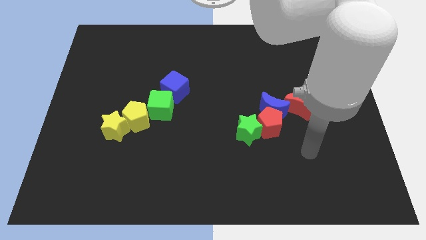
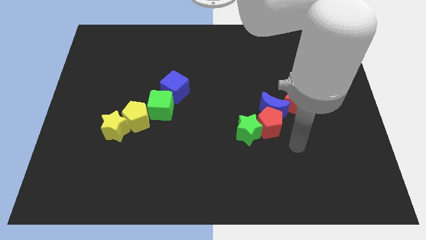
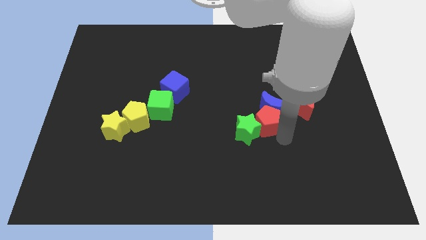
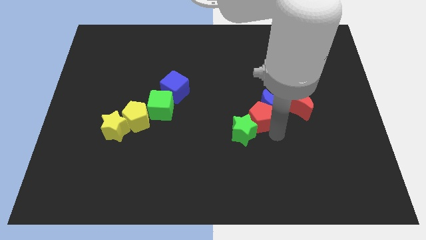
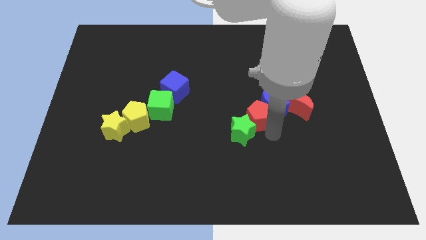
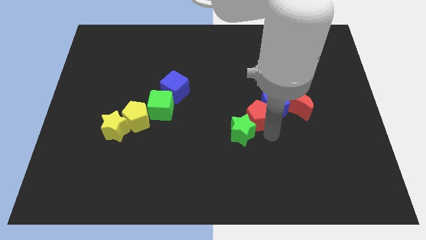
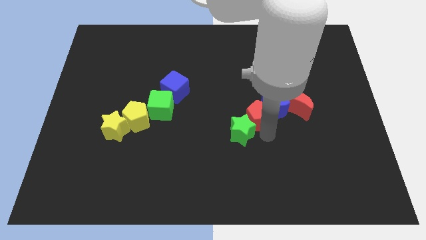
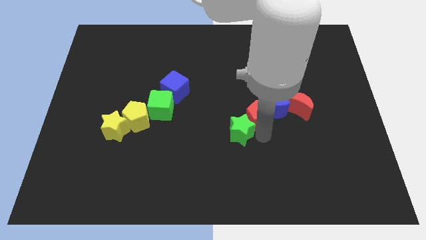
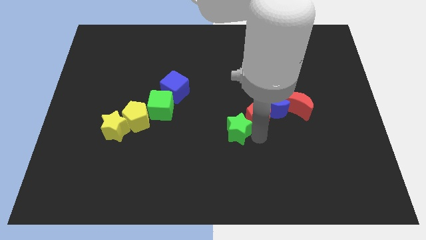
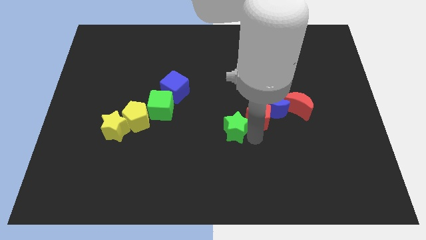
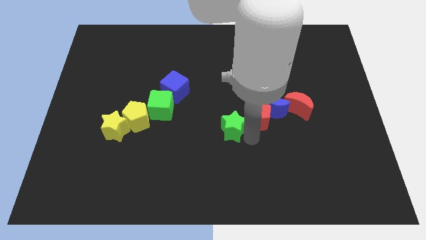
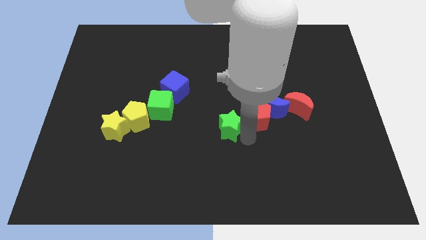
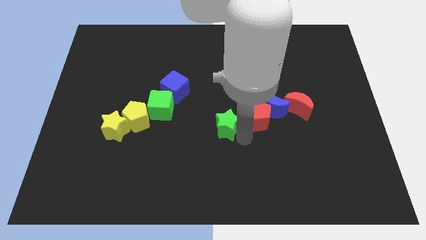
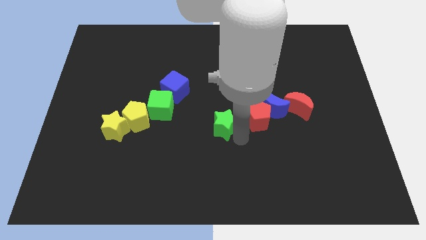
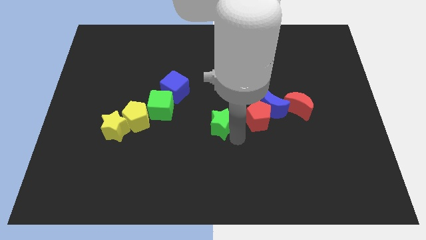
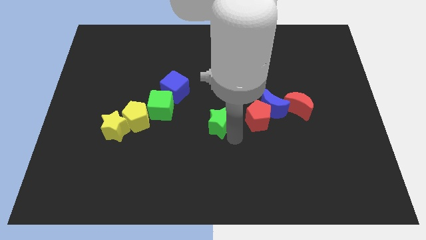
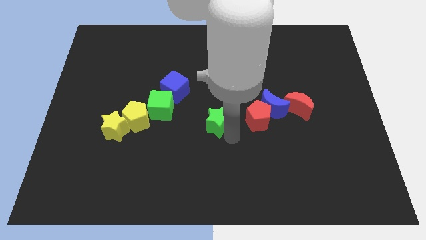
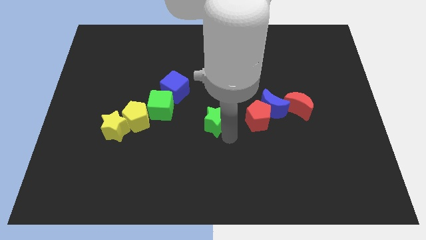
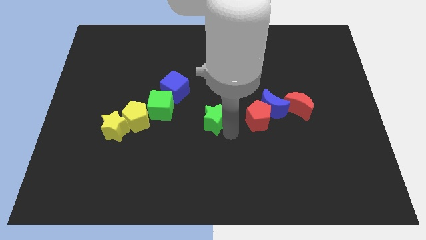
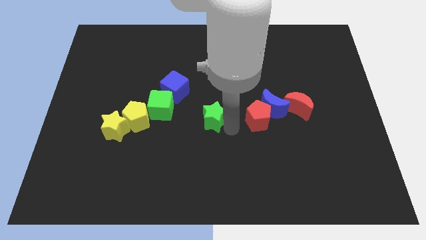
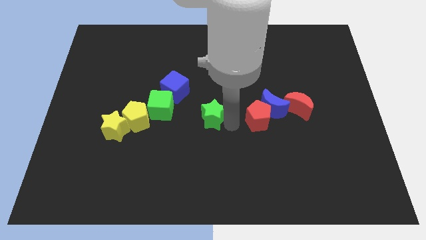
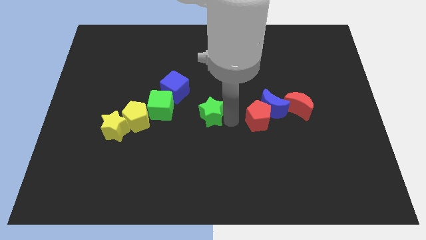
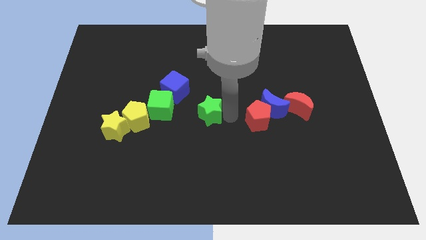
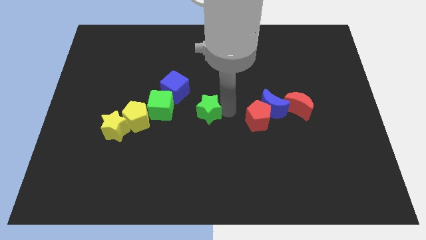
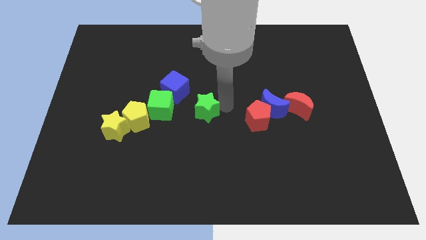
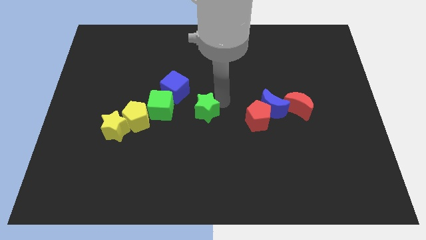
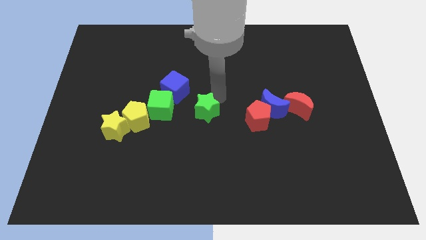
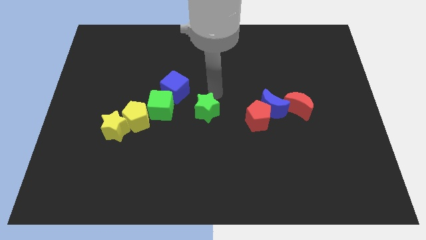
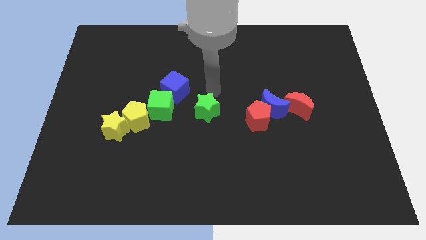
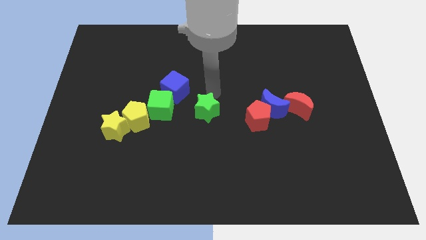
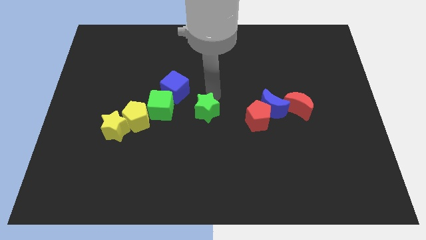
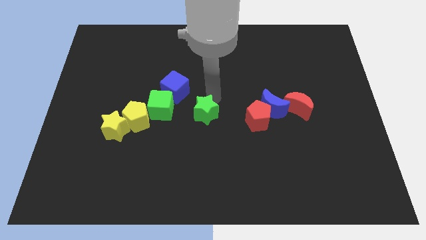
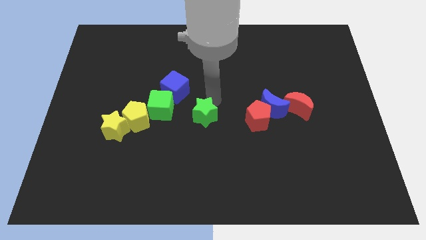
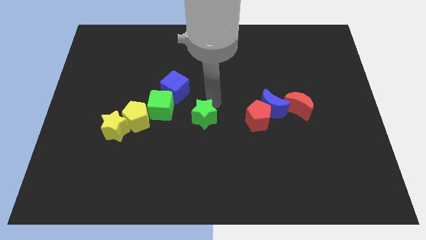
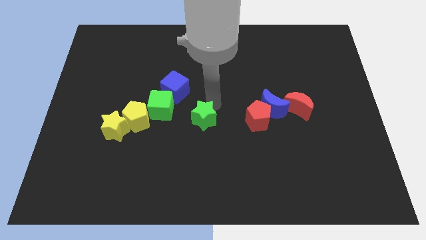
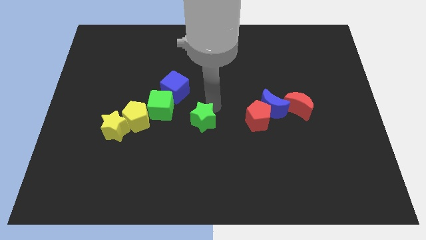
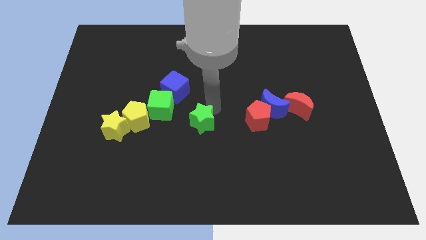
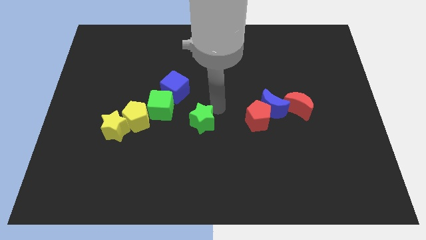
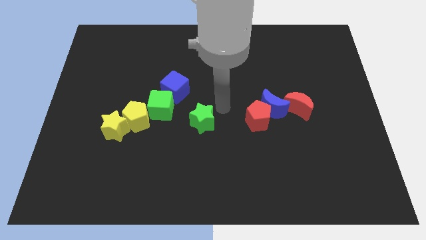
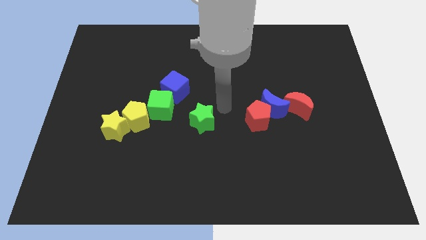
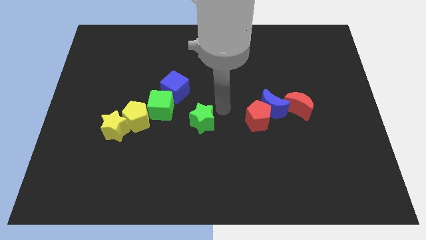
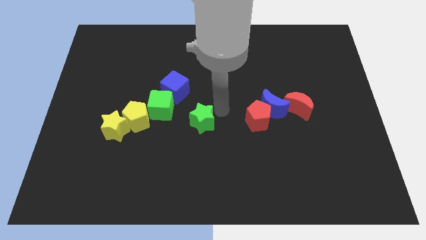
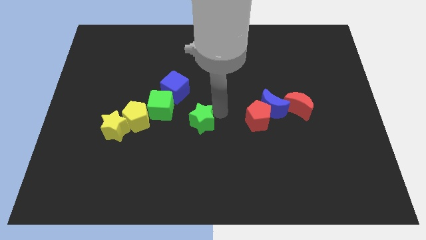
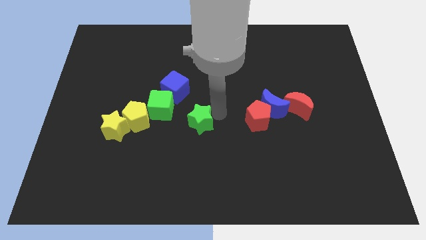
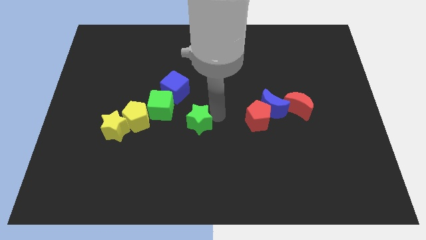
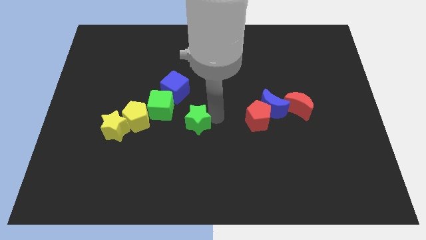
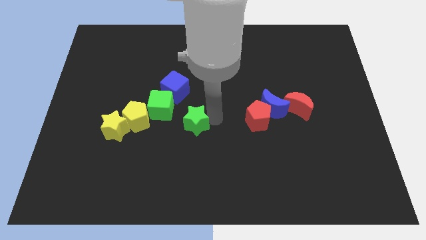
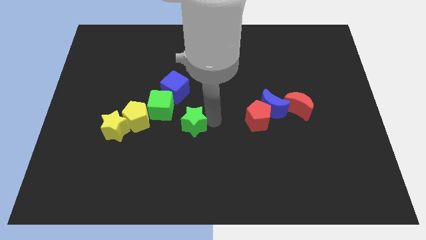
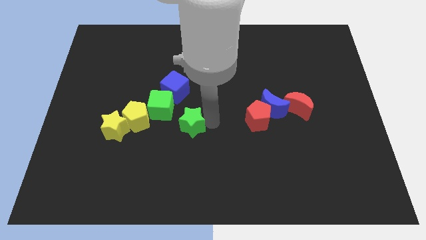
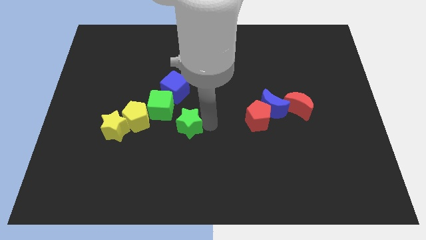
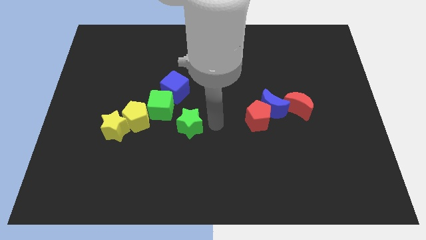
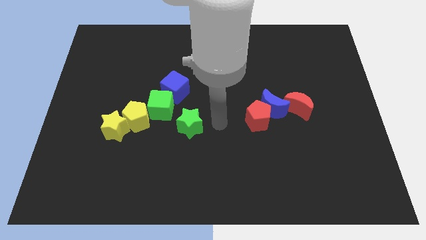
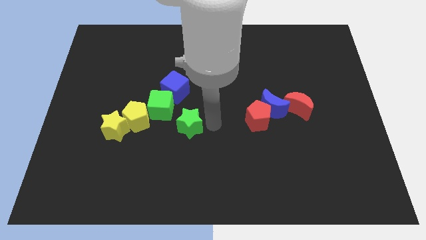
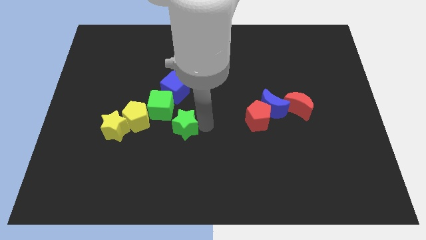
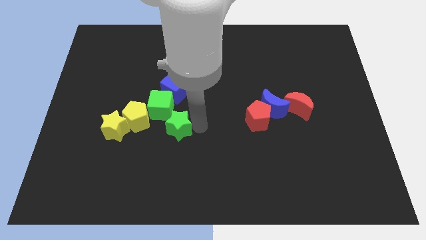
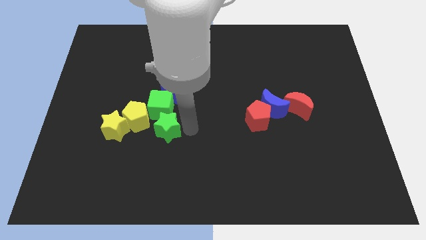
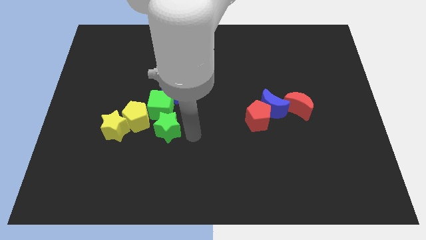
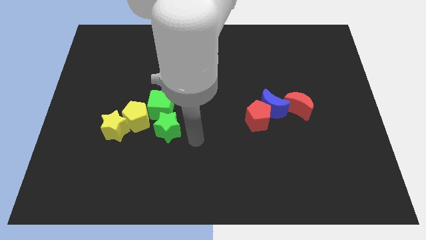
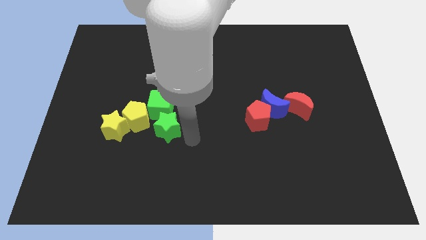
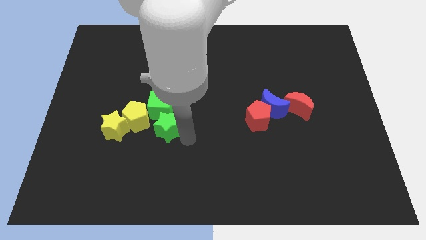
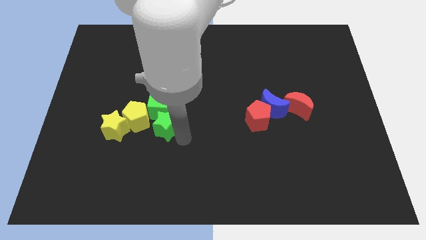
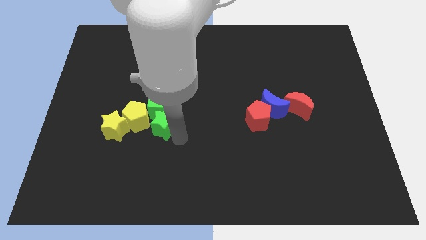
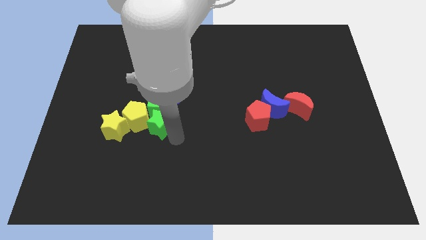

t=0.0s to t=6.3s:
move the green star towards the yellow pentagon

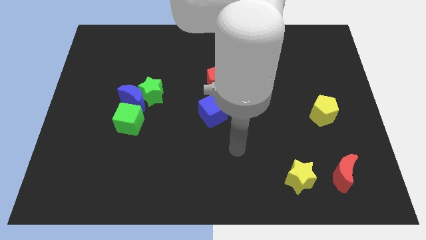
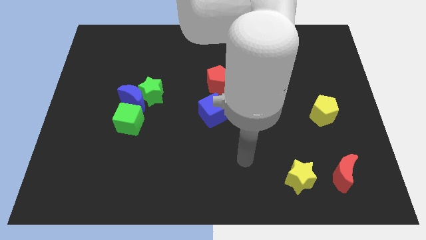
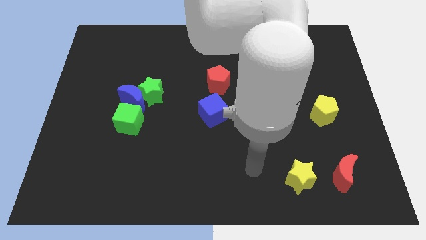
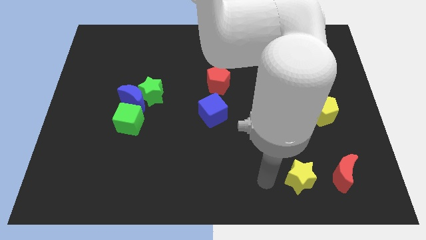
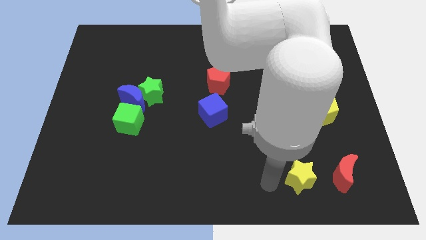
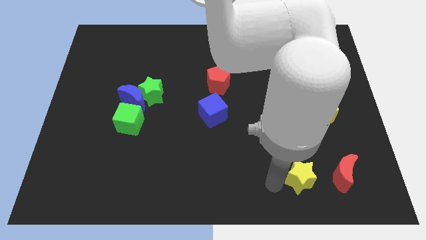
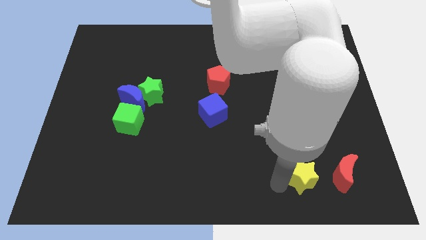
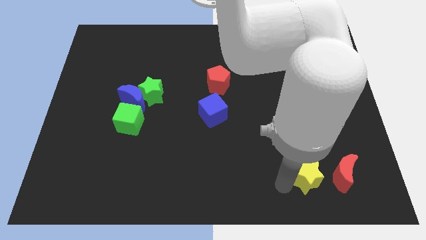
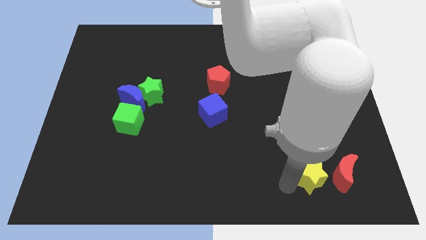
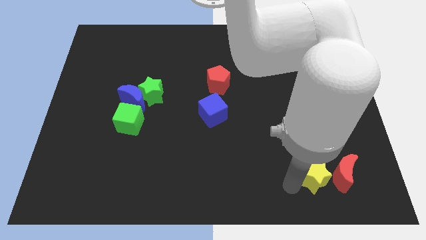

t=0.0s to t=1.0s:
slide the yellow star close to the red moon
